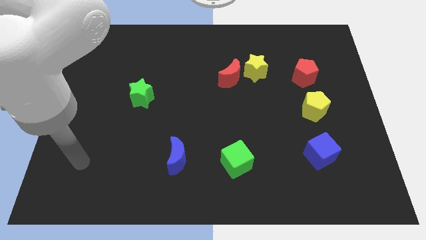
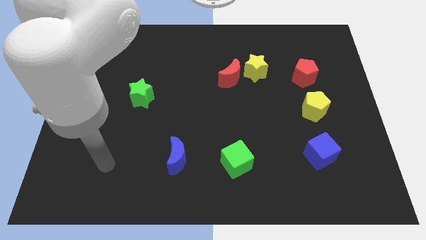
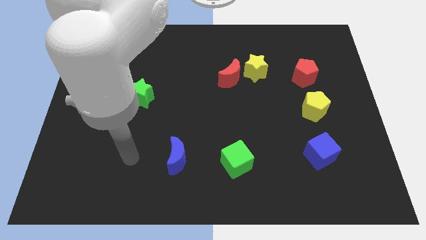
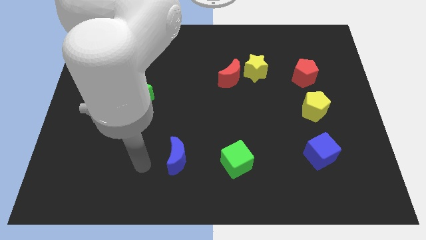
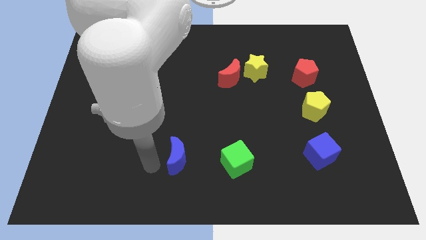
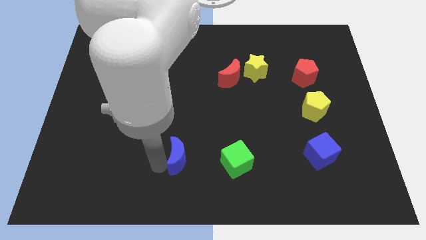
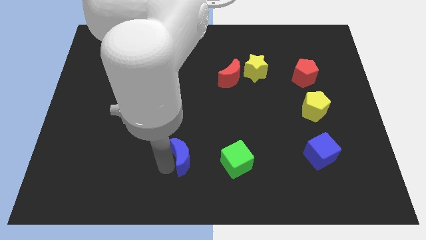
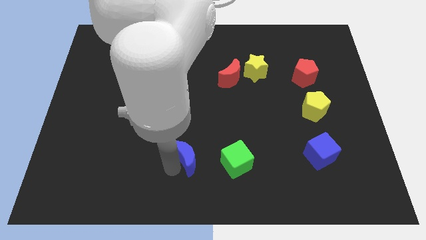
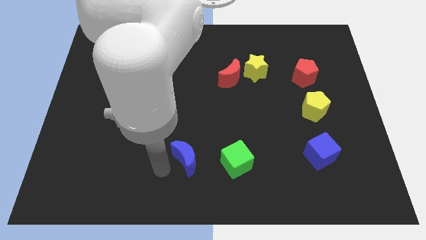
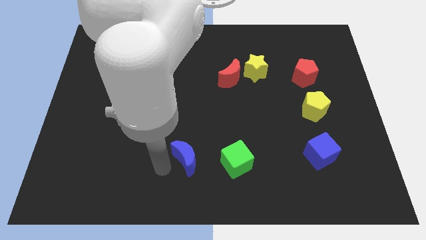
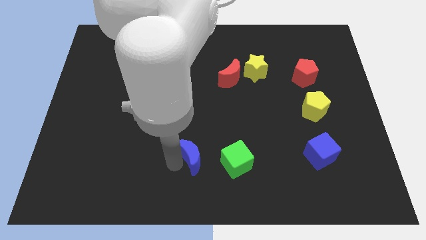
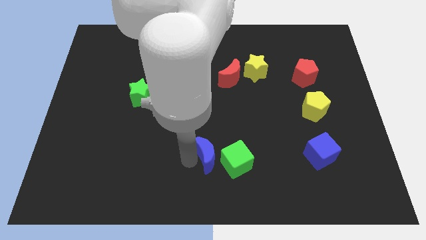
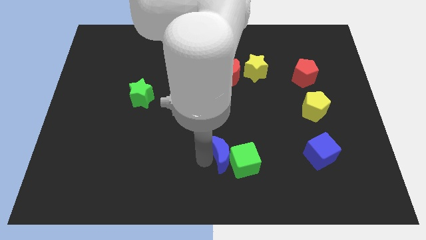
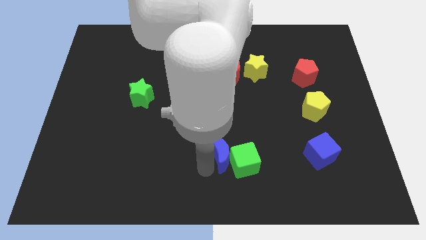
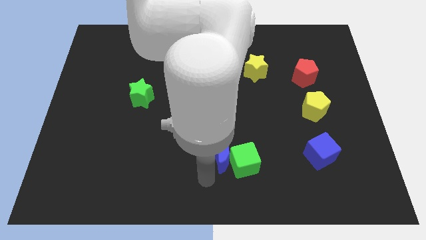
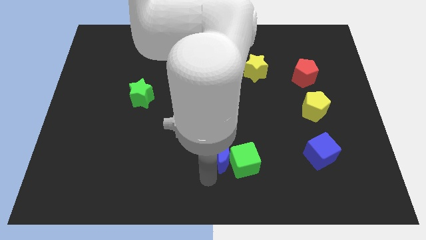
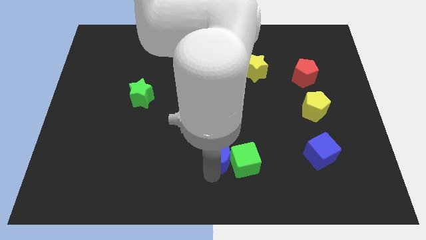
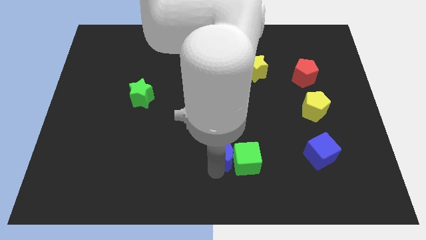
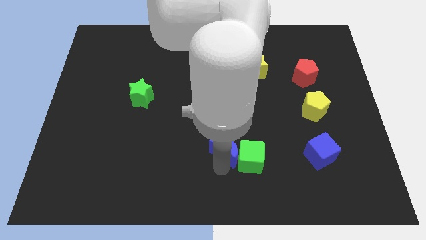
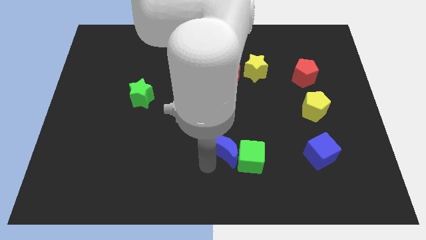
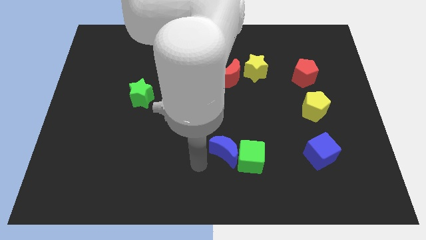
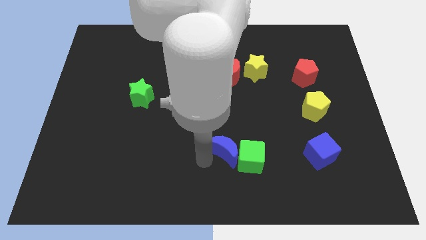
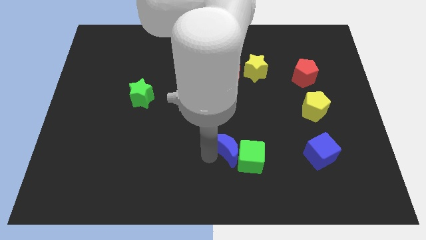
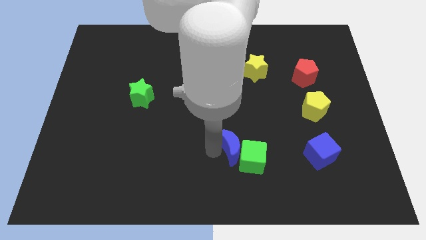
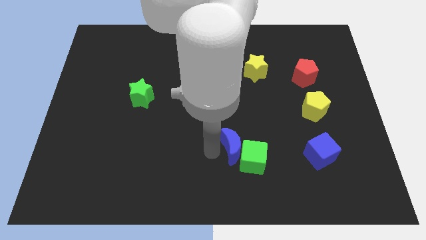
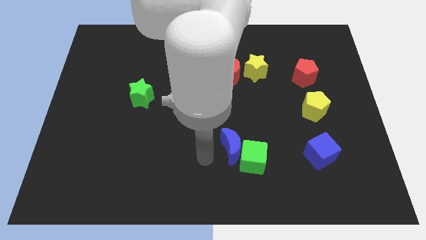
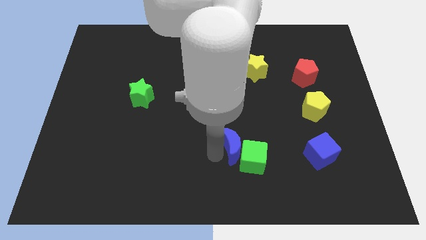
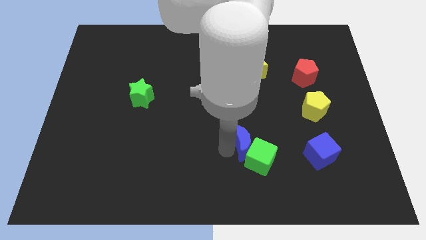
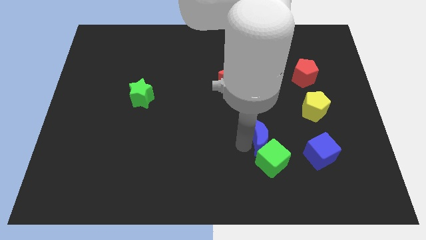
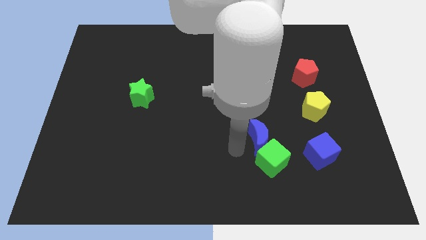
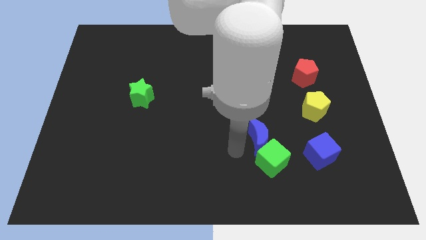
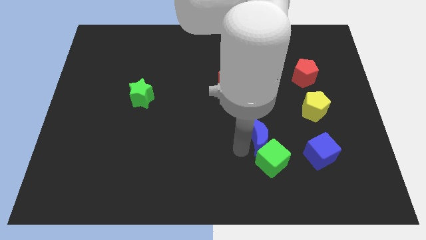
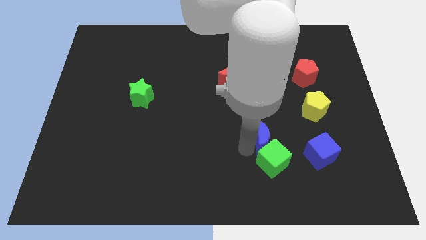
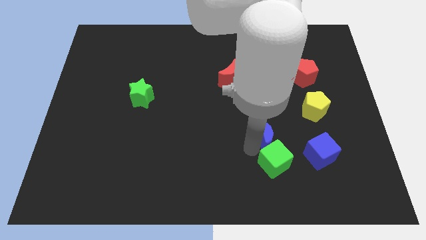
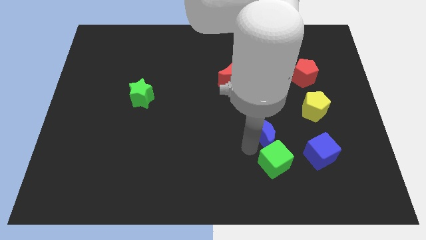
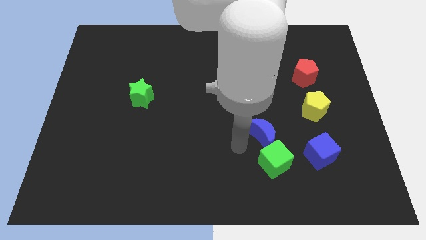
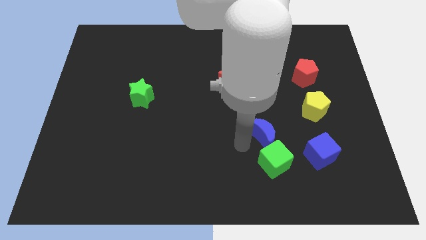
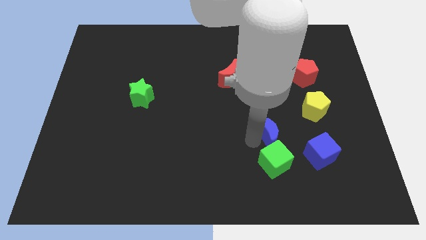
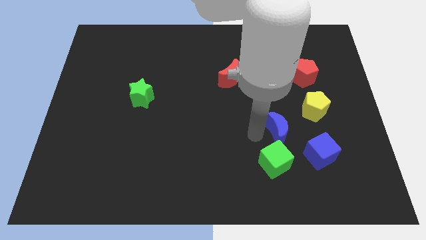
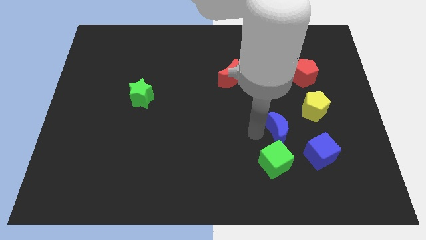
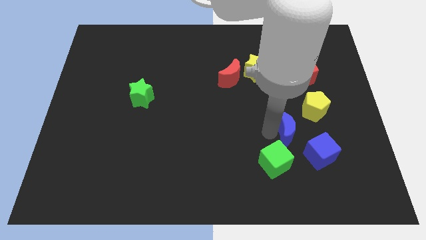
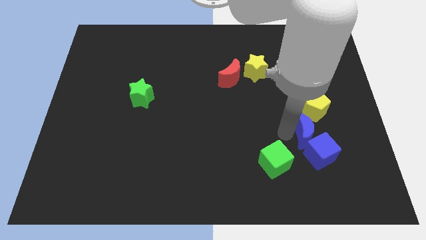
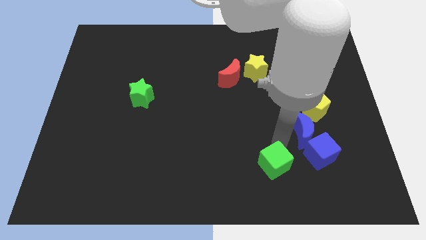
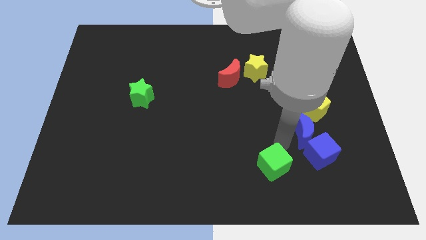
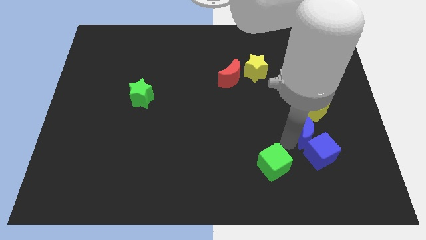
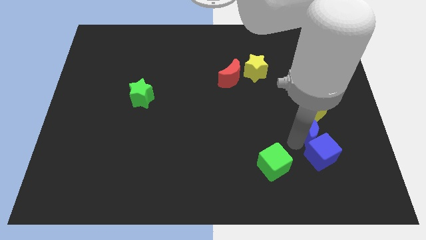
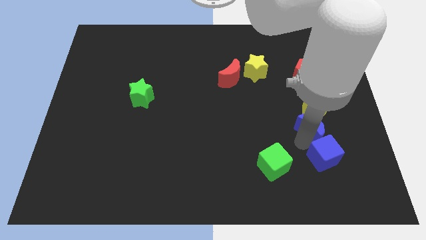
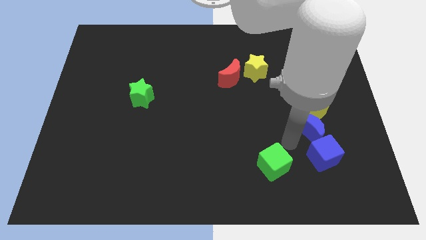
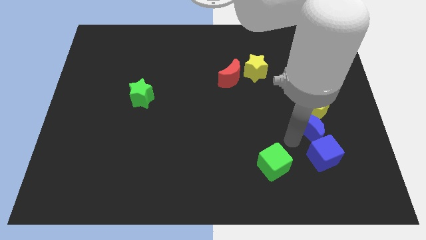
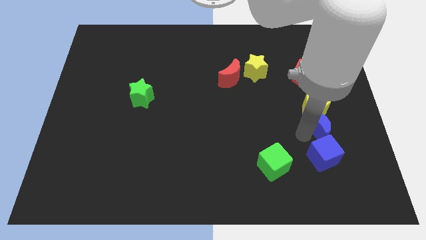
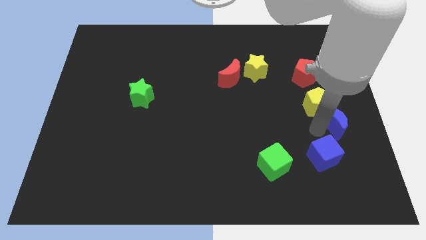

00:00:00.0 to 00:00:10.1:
slide the blue moon to the center right

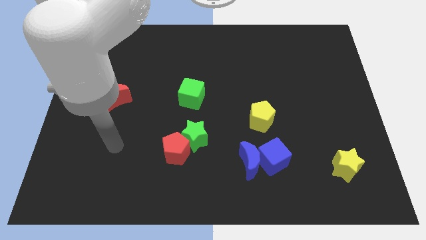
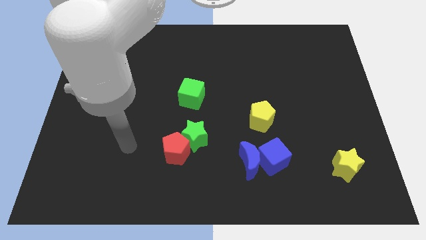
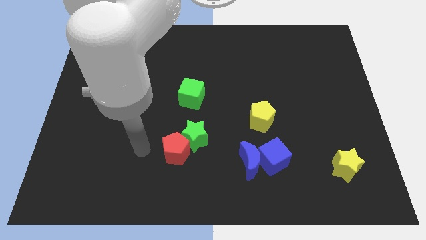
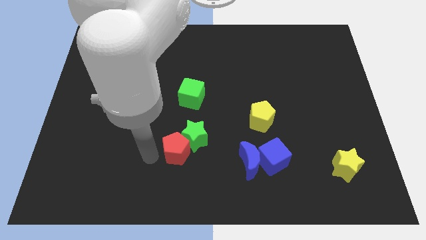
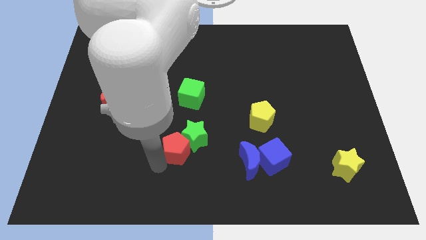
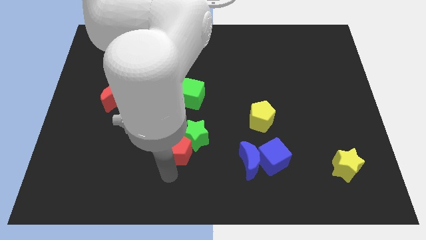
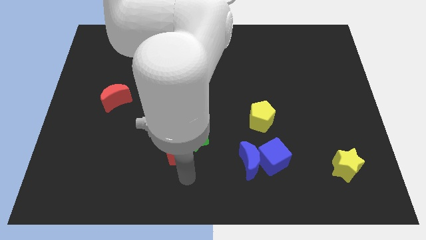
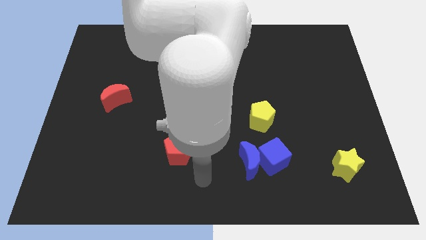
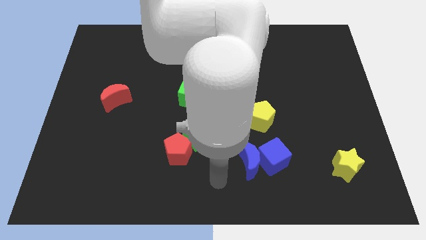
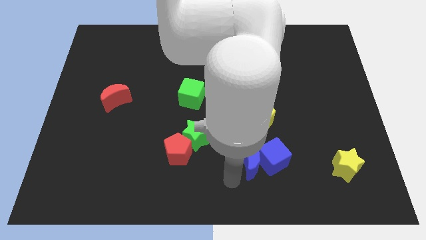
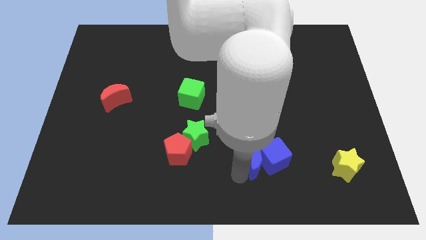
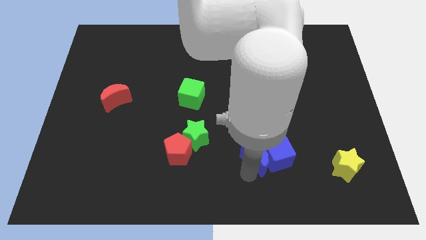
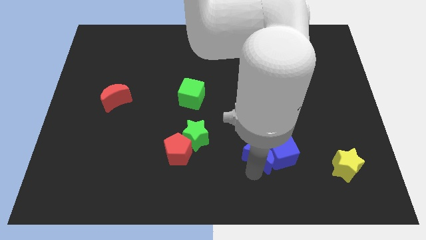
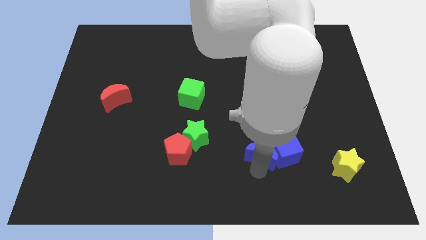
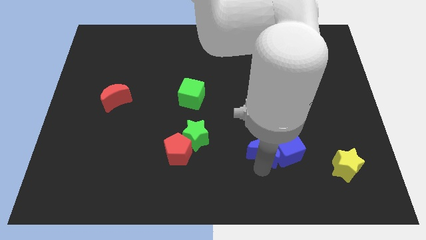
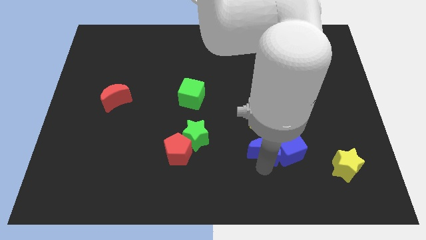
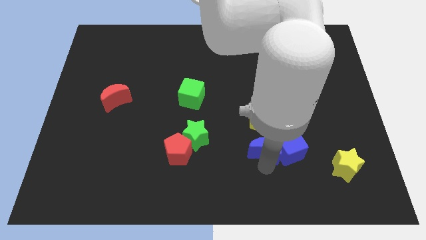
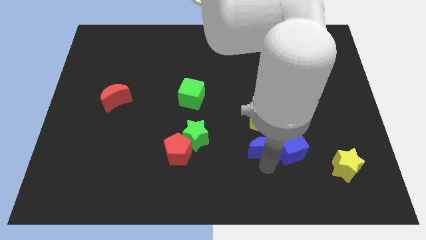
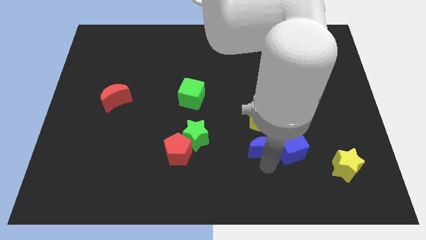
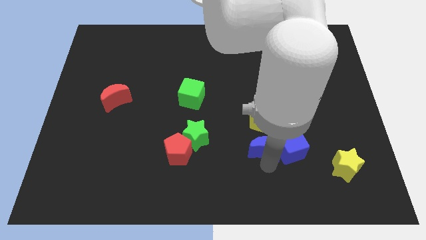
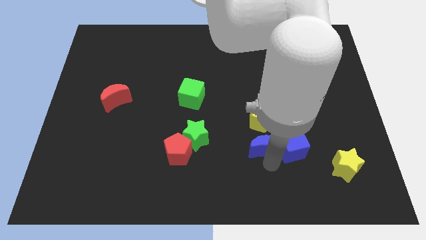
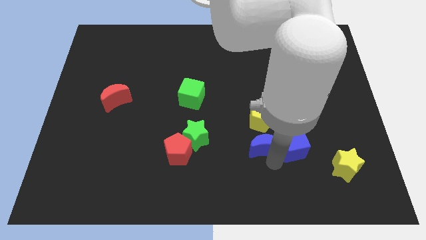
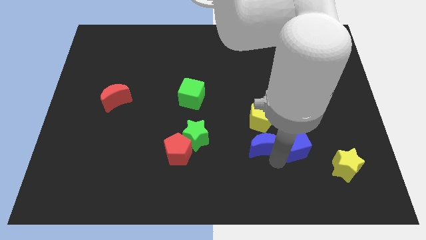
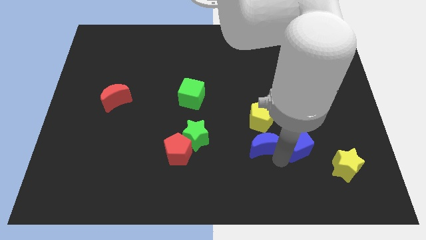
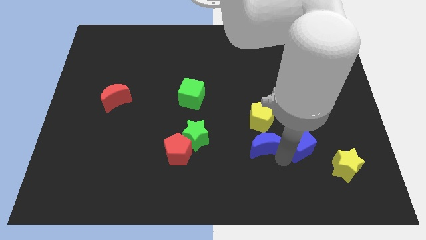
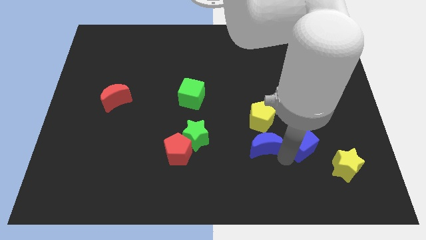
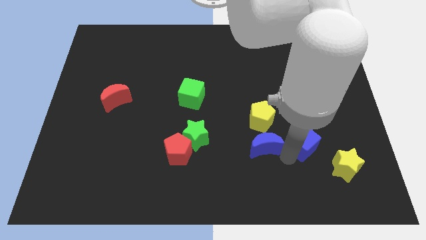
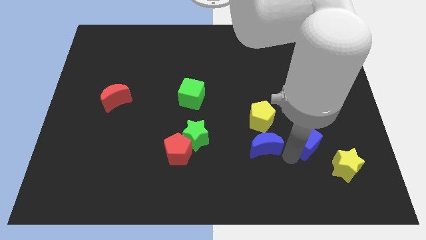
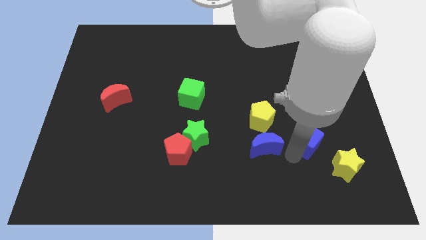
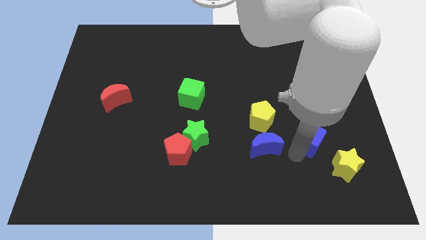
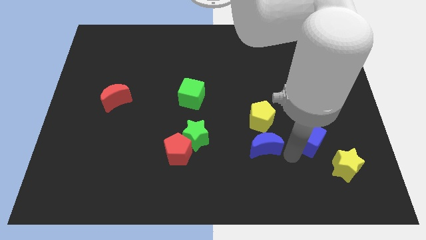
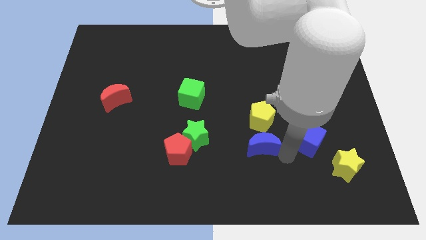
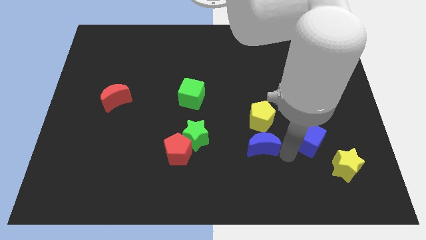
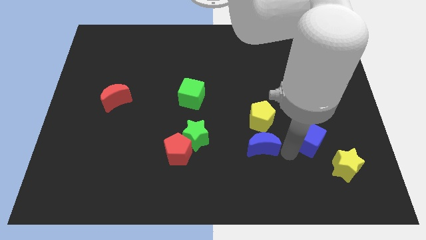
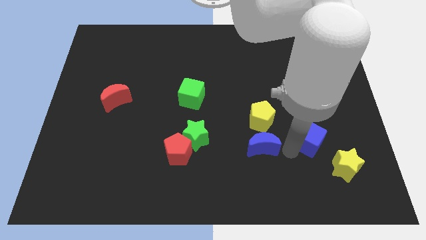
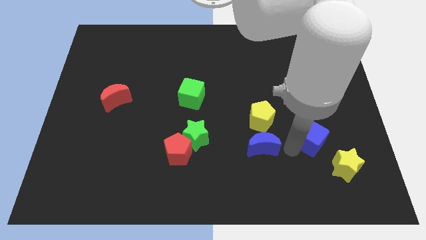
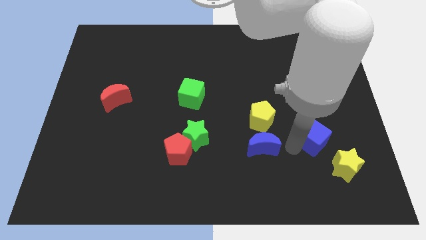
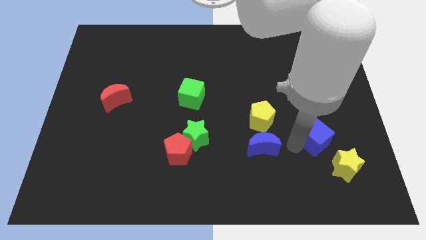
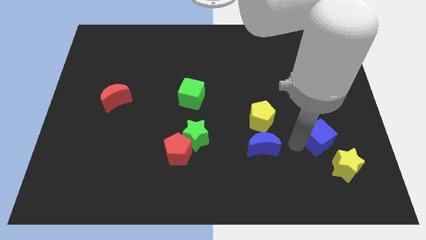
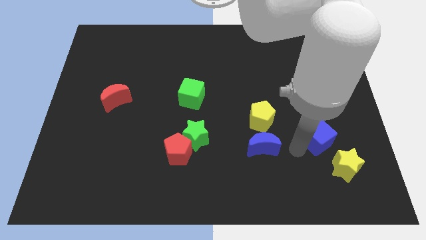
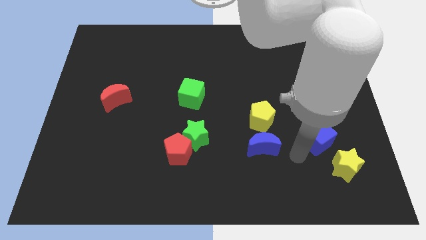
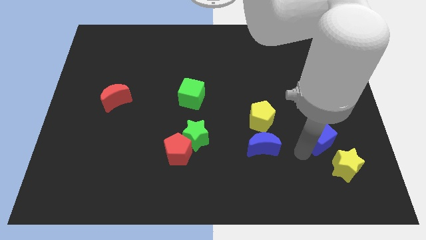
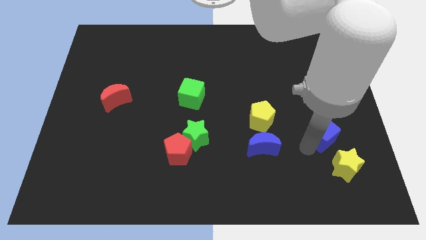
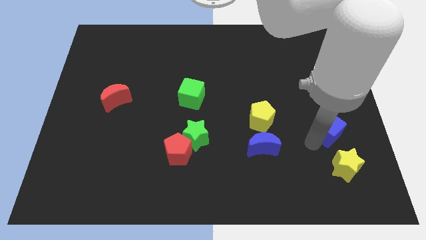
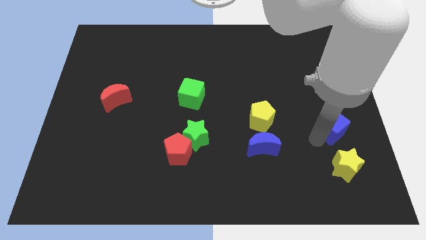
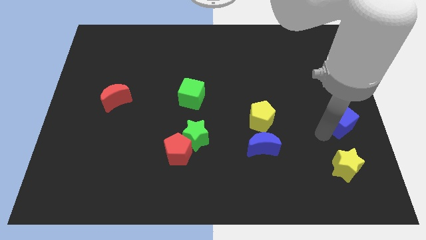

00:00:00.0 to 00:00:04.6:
slide the blue cube to the right side of the board
